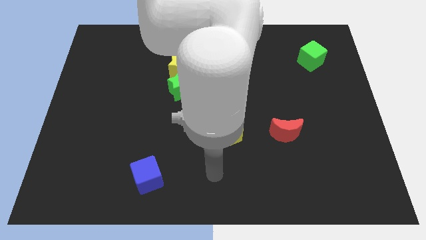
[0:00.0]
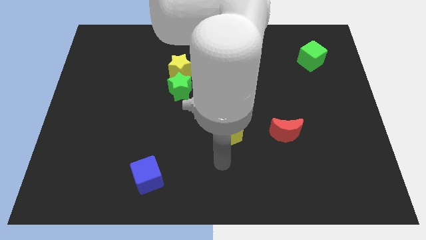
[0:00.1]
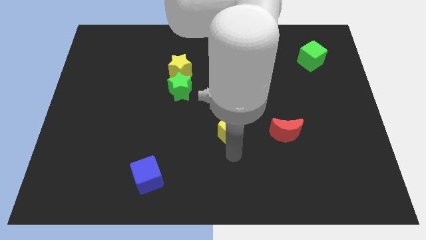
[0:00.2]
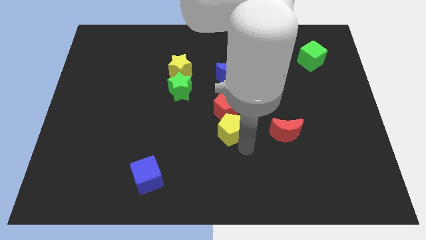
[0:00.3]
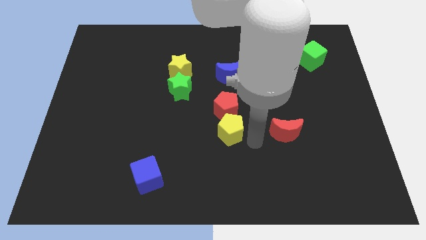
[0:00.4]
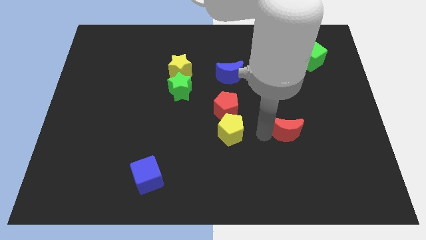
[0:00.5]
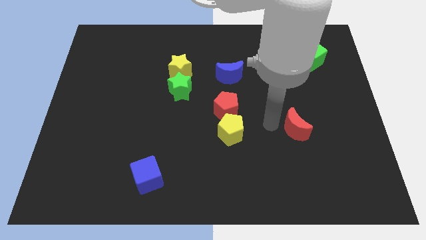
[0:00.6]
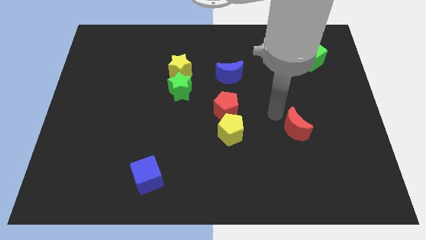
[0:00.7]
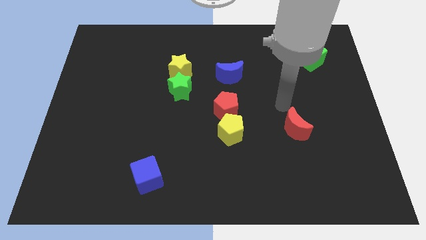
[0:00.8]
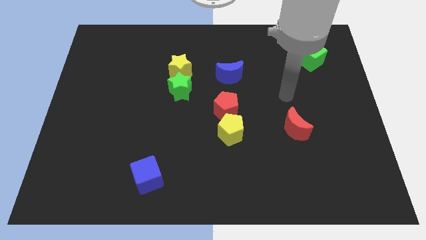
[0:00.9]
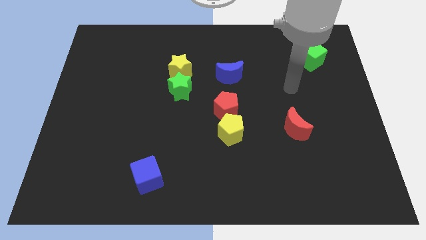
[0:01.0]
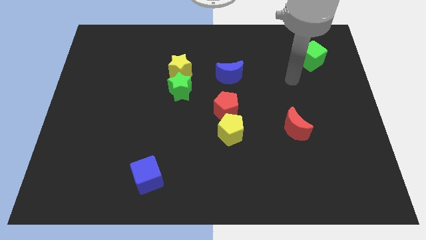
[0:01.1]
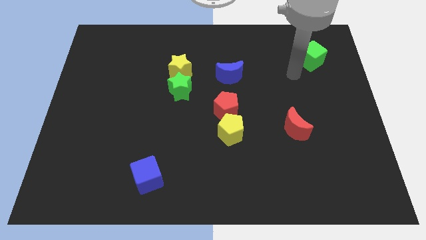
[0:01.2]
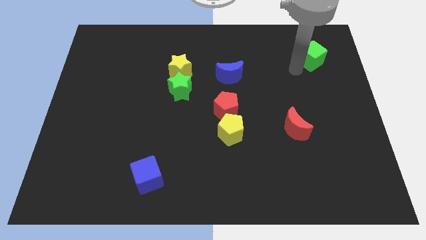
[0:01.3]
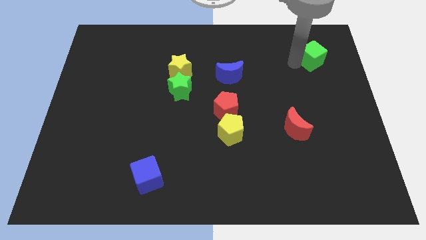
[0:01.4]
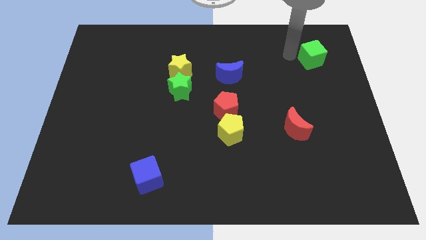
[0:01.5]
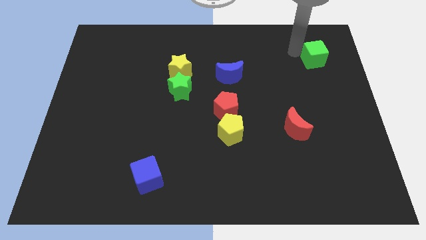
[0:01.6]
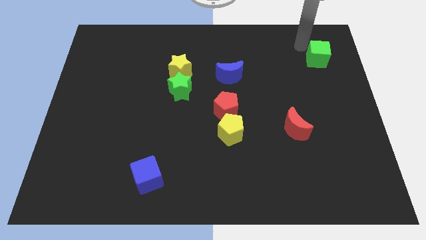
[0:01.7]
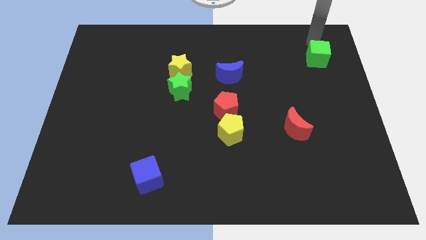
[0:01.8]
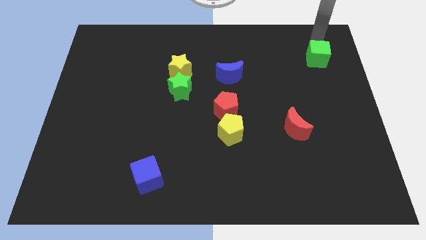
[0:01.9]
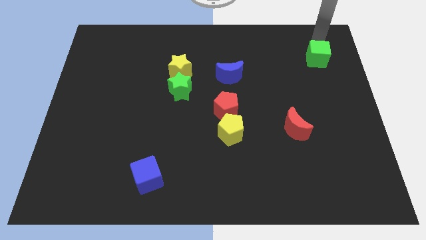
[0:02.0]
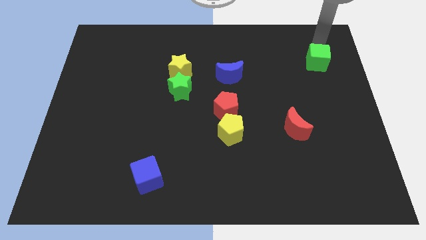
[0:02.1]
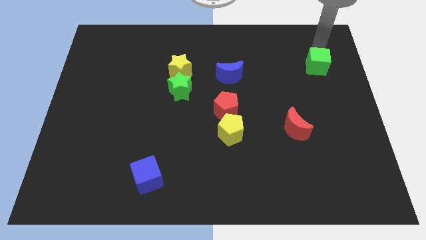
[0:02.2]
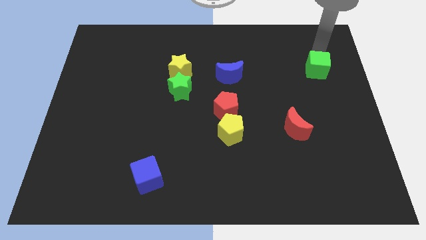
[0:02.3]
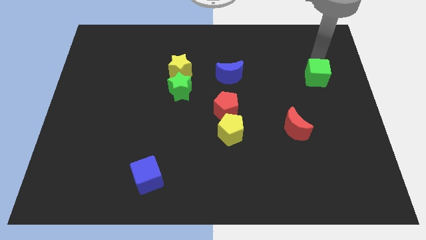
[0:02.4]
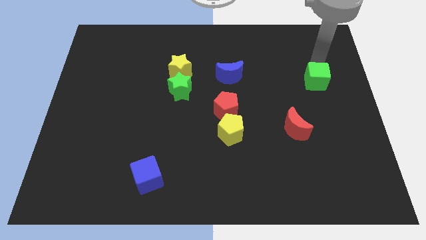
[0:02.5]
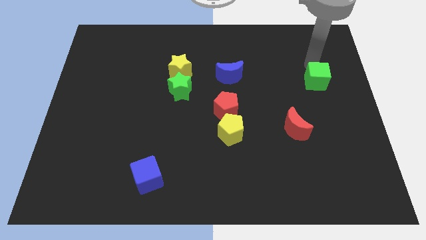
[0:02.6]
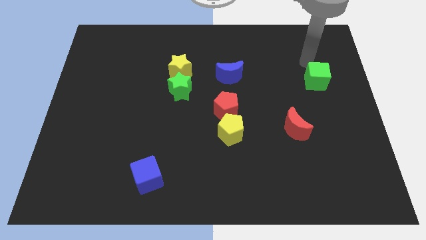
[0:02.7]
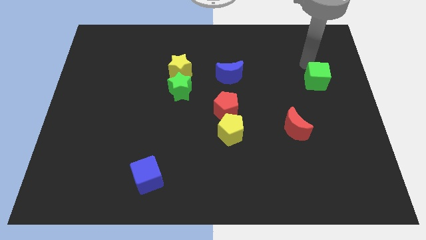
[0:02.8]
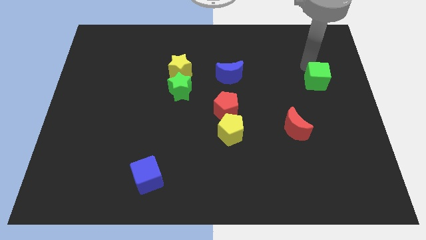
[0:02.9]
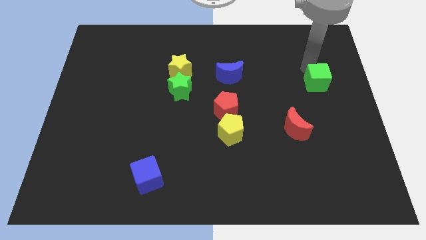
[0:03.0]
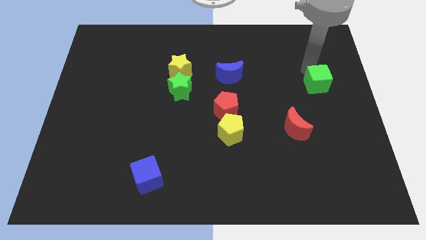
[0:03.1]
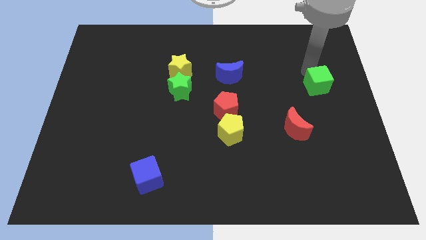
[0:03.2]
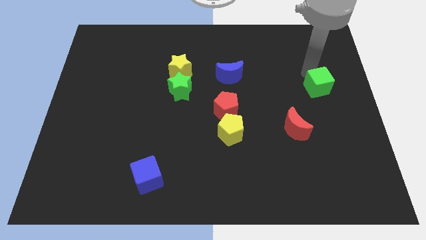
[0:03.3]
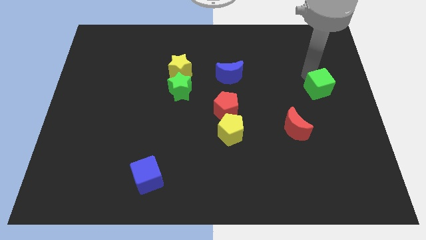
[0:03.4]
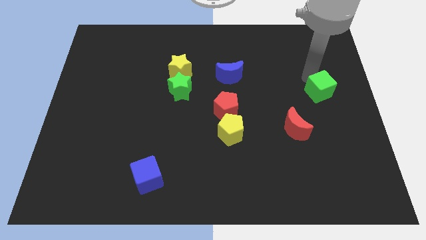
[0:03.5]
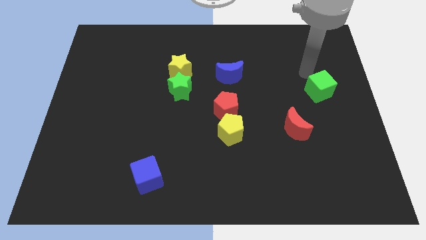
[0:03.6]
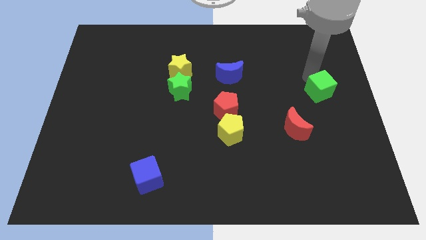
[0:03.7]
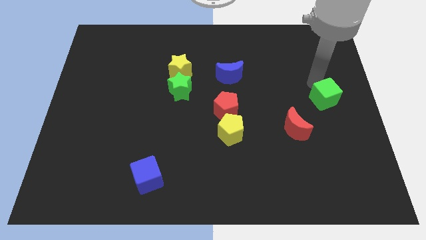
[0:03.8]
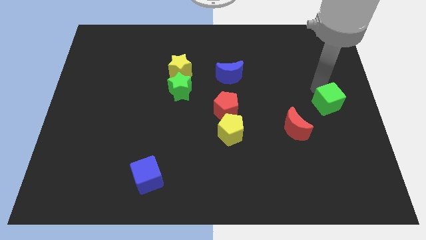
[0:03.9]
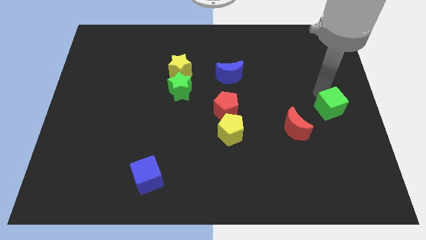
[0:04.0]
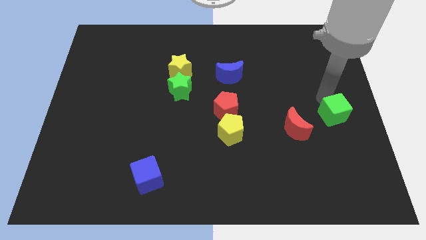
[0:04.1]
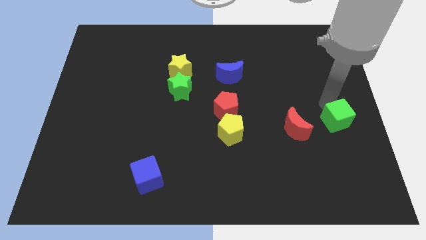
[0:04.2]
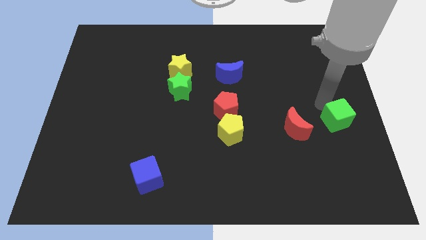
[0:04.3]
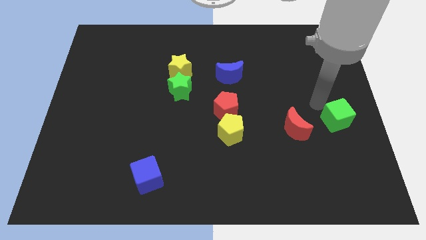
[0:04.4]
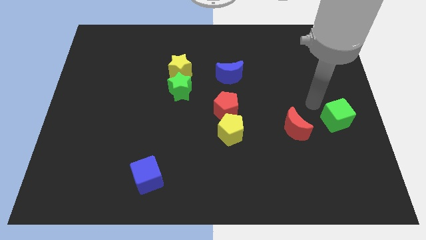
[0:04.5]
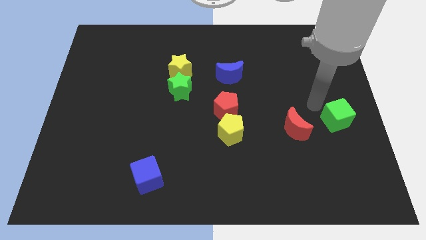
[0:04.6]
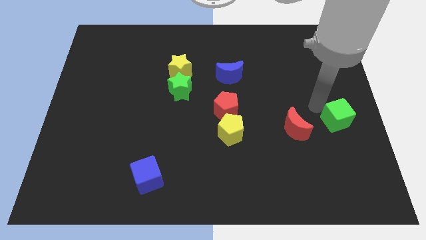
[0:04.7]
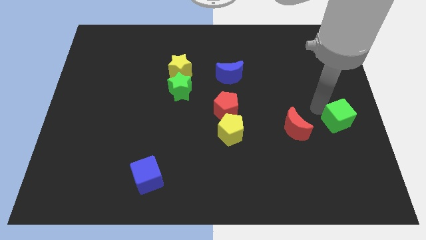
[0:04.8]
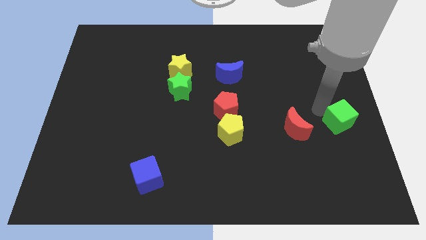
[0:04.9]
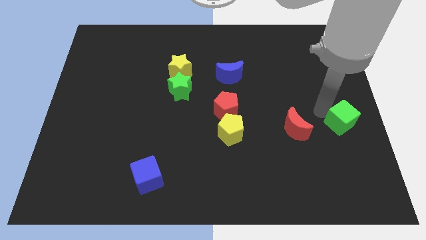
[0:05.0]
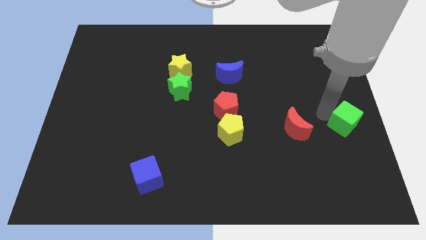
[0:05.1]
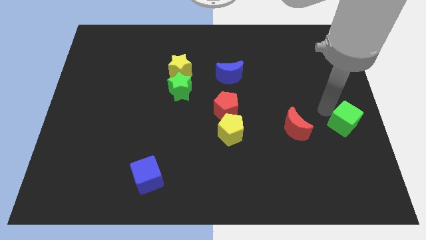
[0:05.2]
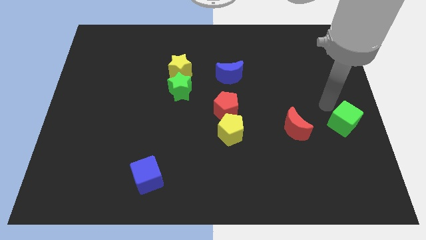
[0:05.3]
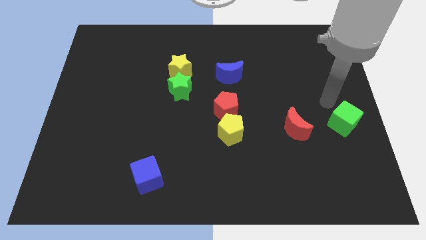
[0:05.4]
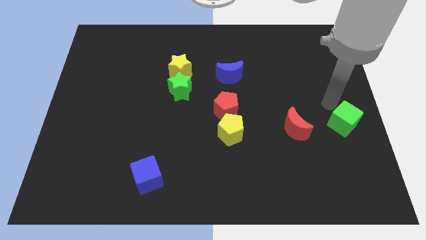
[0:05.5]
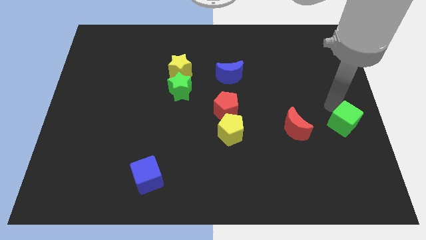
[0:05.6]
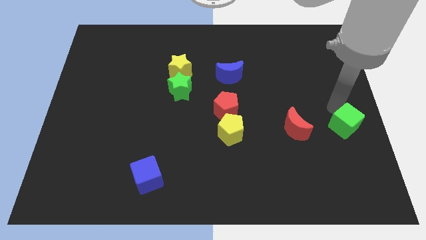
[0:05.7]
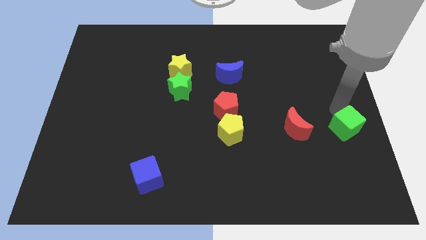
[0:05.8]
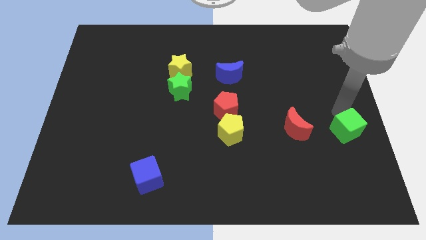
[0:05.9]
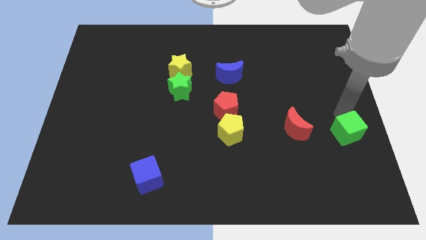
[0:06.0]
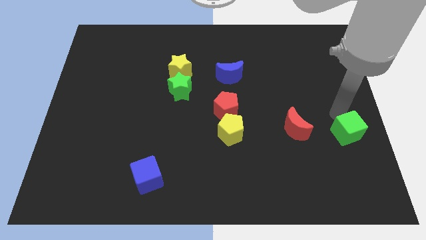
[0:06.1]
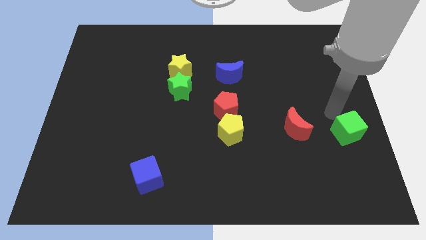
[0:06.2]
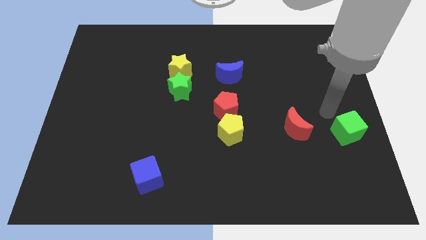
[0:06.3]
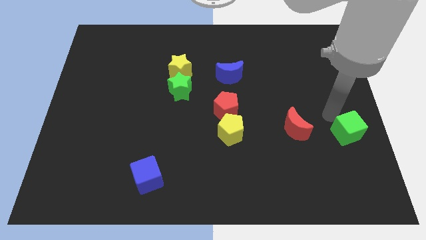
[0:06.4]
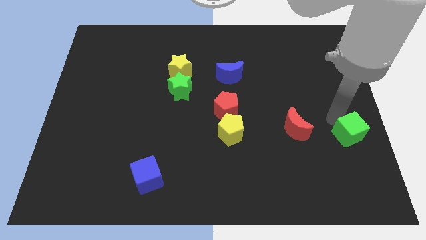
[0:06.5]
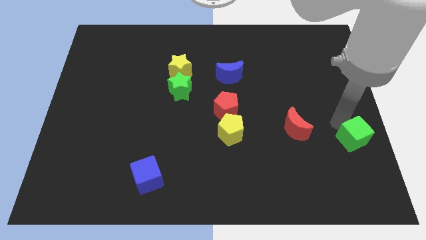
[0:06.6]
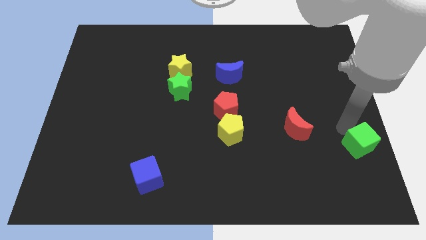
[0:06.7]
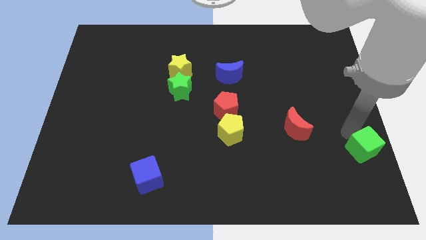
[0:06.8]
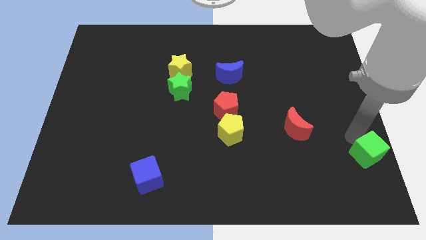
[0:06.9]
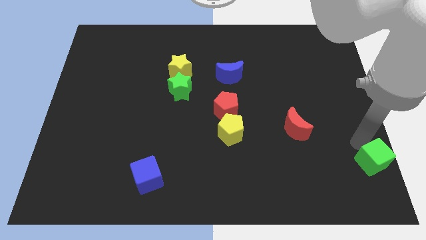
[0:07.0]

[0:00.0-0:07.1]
put the green cube to the bottom right
